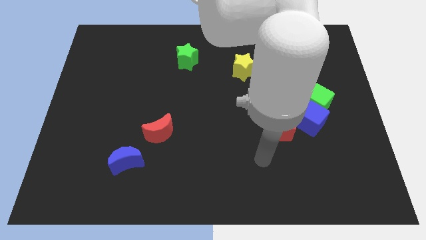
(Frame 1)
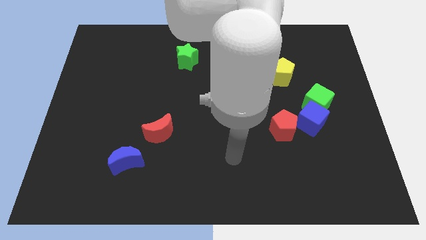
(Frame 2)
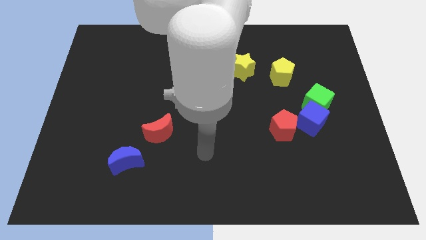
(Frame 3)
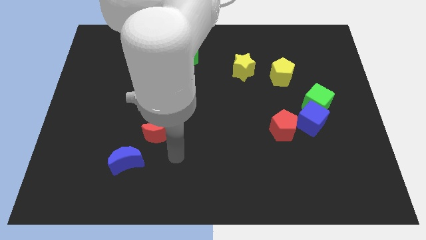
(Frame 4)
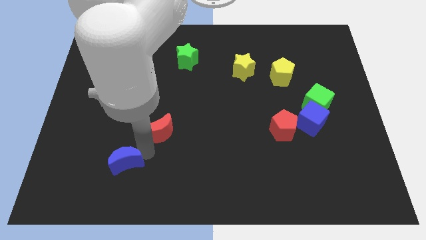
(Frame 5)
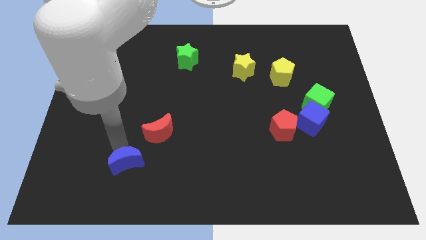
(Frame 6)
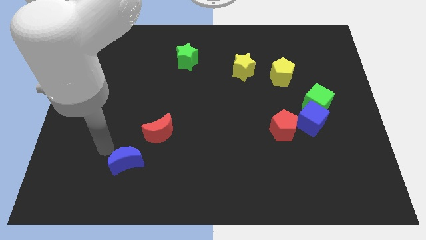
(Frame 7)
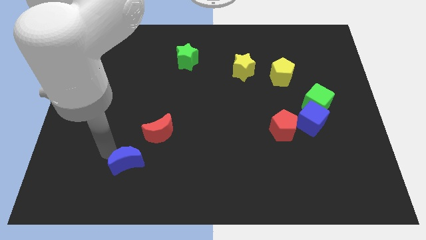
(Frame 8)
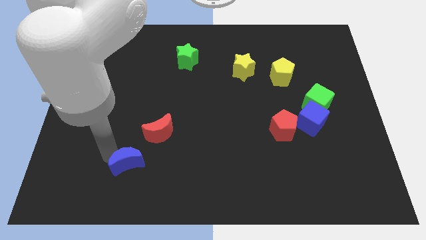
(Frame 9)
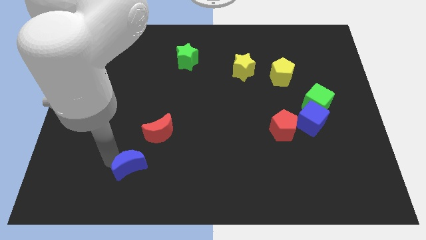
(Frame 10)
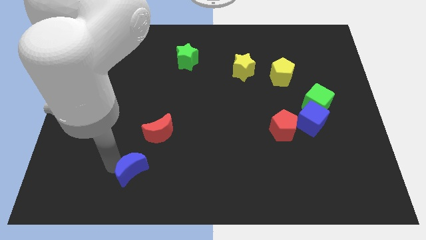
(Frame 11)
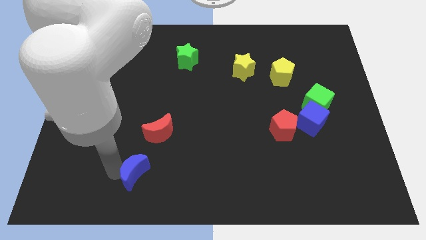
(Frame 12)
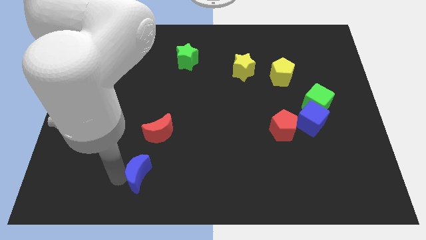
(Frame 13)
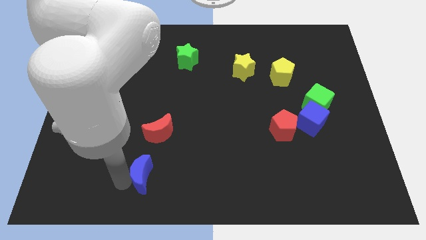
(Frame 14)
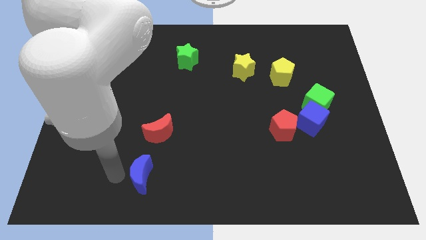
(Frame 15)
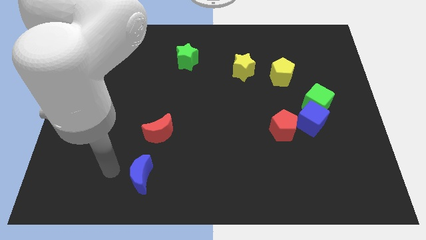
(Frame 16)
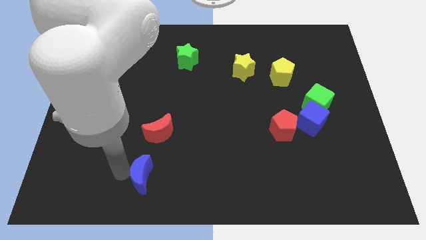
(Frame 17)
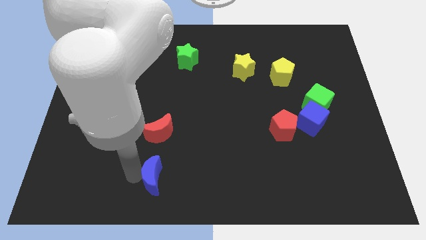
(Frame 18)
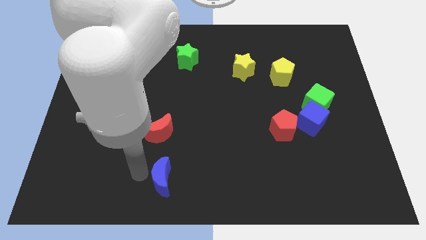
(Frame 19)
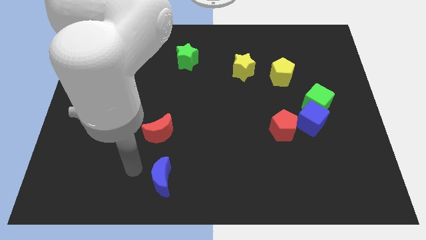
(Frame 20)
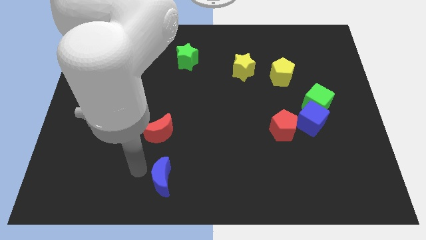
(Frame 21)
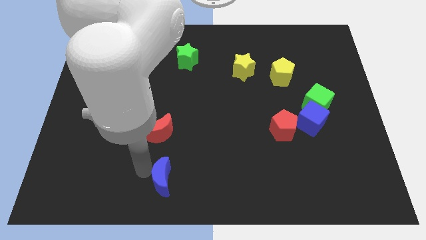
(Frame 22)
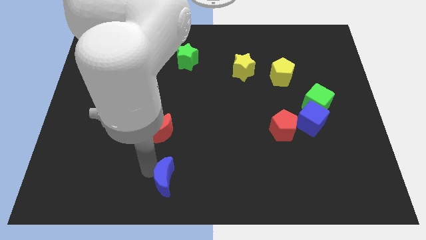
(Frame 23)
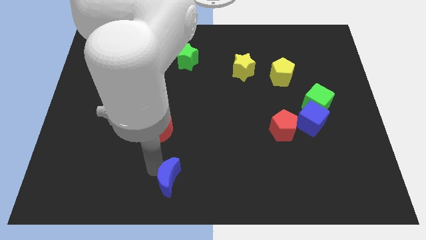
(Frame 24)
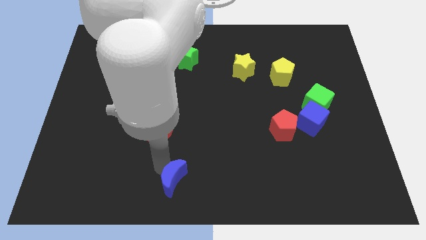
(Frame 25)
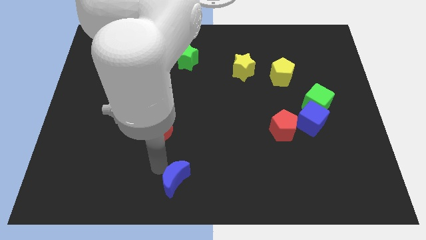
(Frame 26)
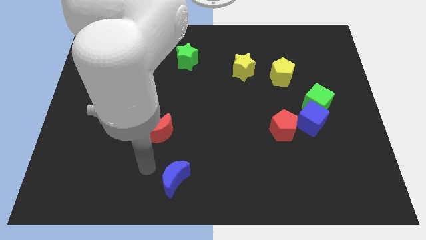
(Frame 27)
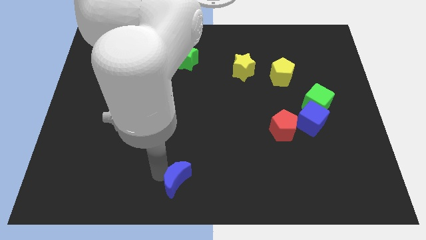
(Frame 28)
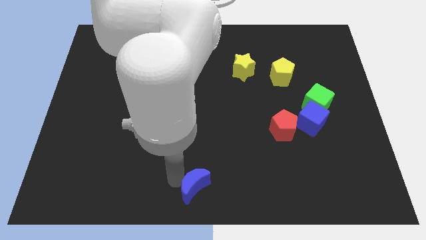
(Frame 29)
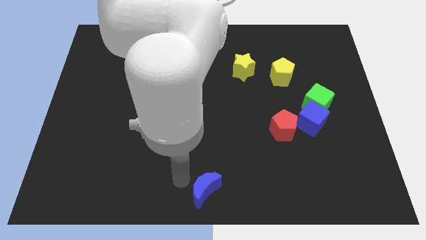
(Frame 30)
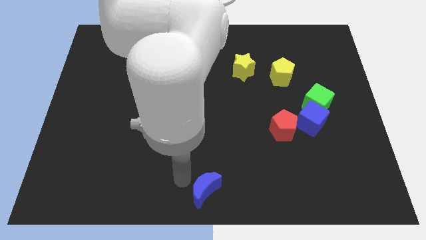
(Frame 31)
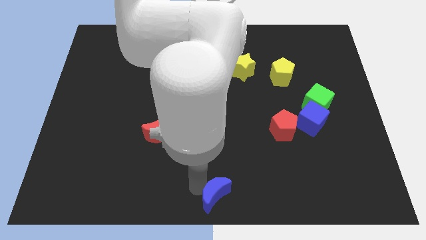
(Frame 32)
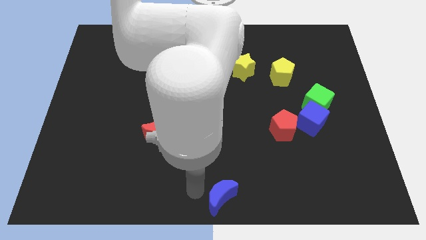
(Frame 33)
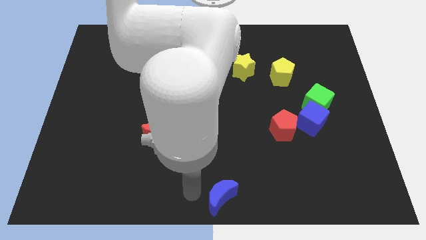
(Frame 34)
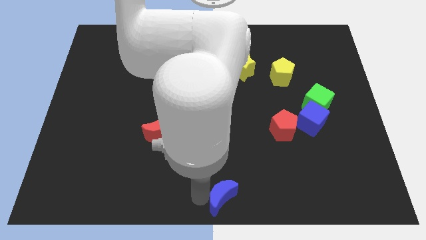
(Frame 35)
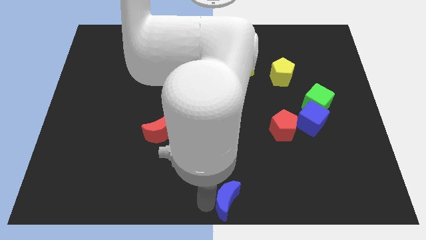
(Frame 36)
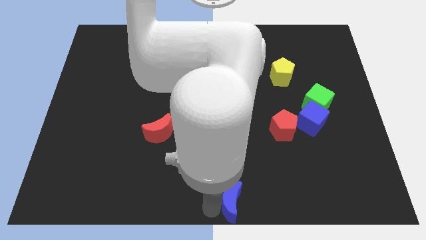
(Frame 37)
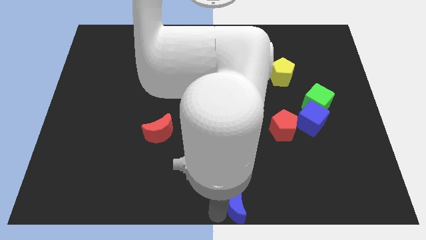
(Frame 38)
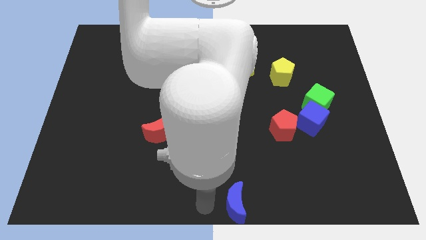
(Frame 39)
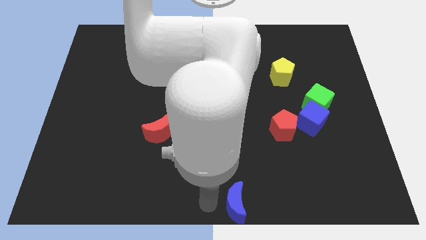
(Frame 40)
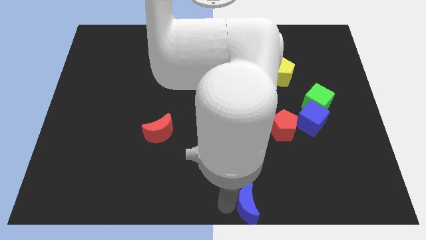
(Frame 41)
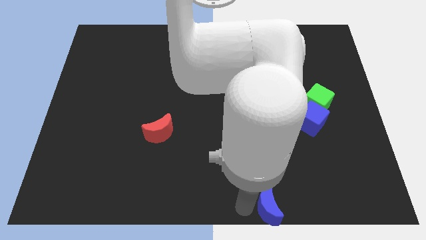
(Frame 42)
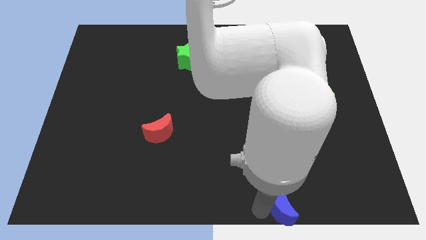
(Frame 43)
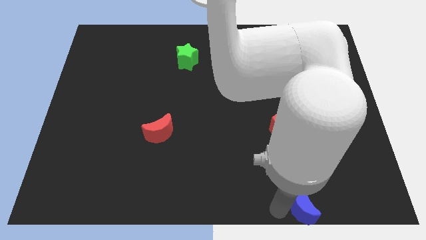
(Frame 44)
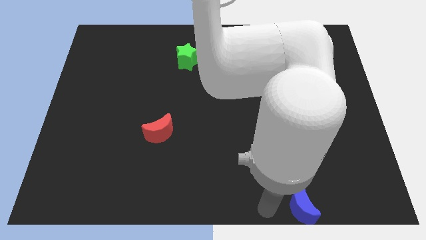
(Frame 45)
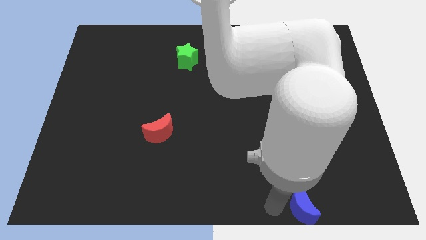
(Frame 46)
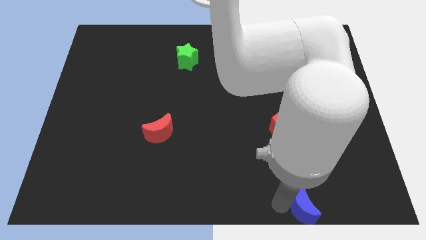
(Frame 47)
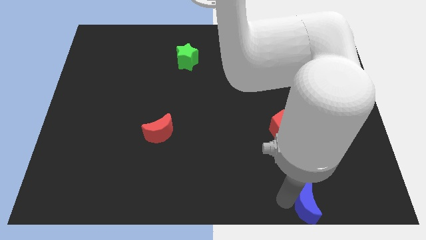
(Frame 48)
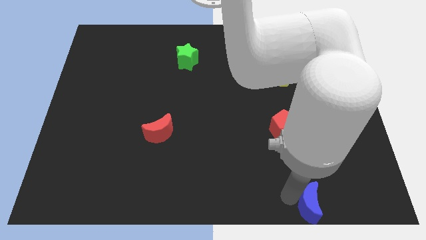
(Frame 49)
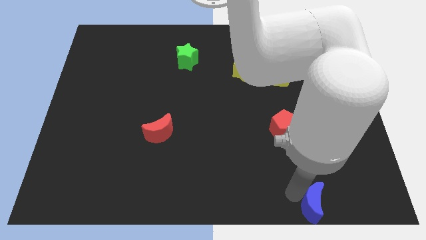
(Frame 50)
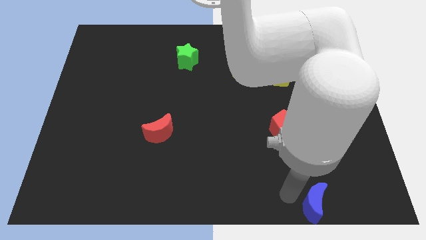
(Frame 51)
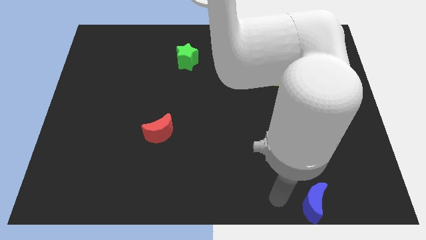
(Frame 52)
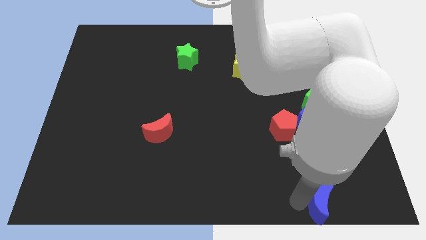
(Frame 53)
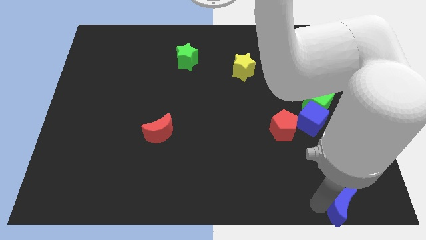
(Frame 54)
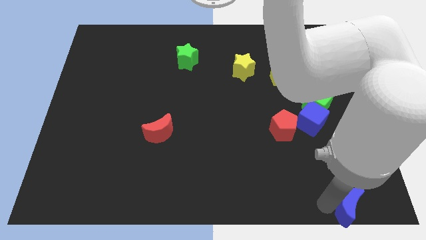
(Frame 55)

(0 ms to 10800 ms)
slide the blue moon to the lower right corner
